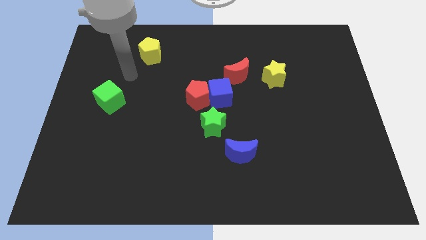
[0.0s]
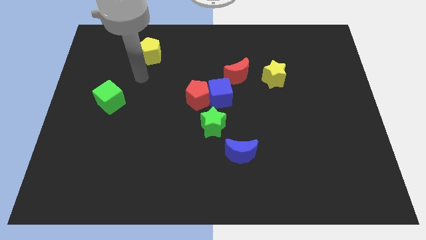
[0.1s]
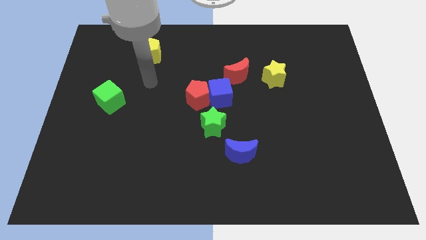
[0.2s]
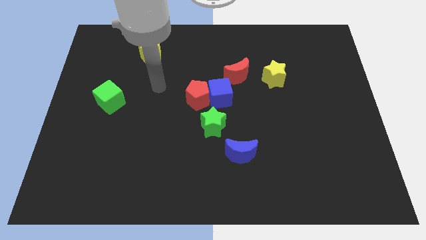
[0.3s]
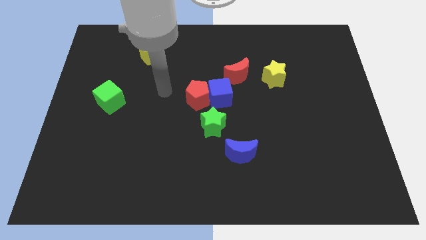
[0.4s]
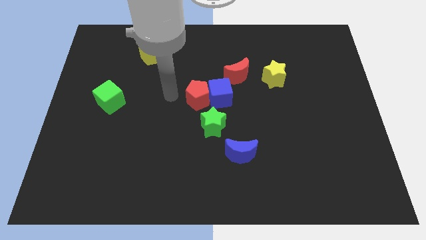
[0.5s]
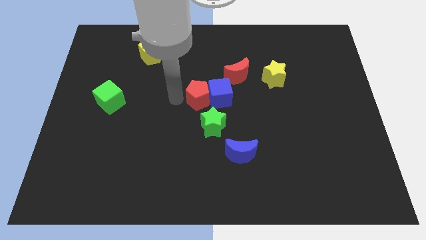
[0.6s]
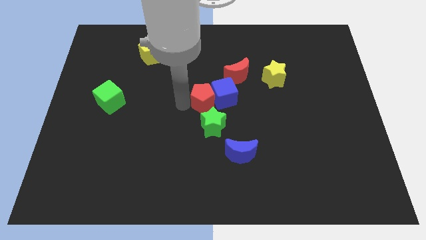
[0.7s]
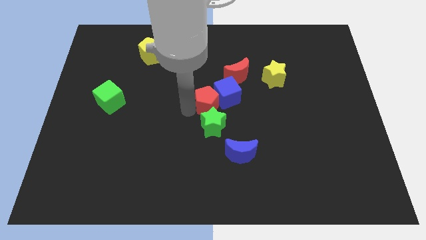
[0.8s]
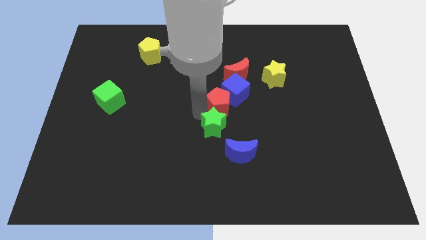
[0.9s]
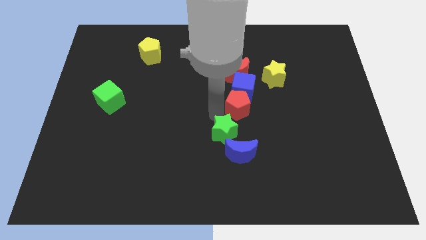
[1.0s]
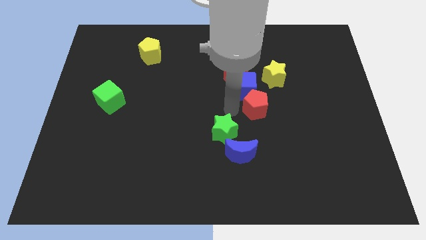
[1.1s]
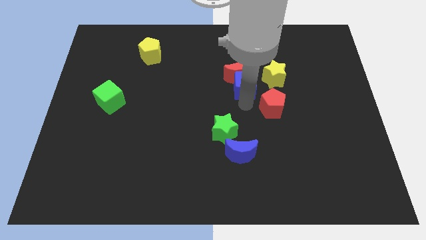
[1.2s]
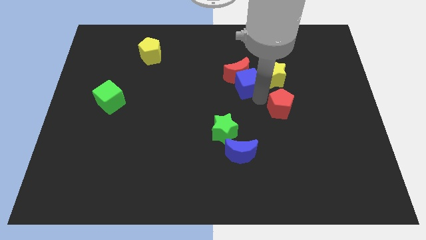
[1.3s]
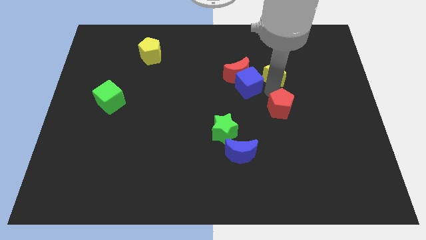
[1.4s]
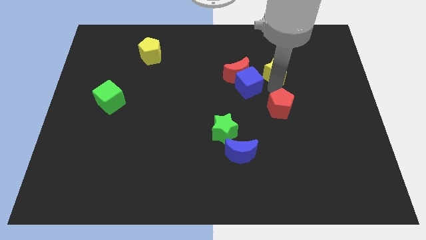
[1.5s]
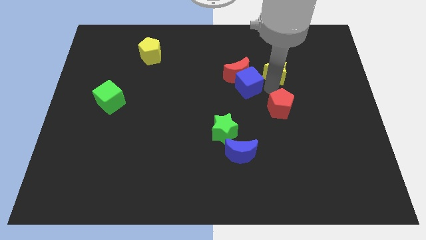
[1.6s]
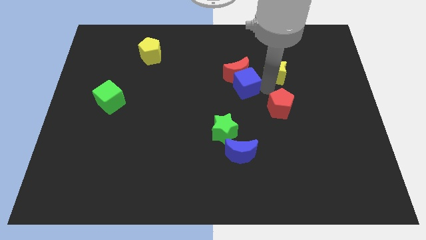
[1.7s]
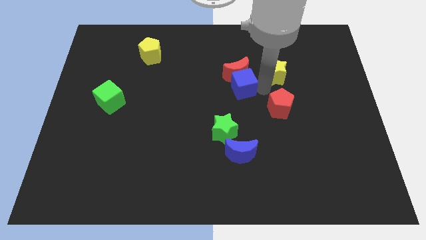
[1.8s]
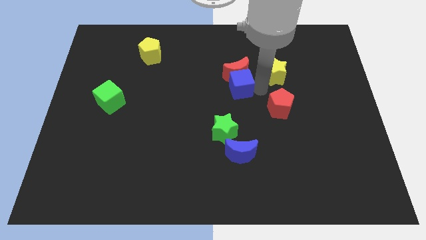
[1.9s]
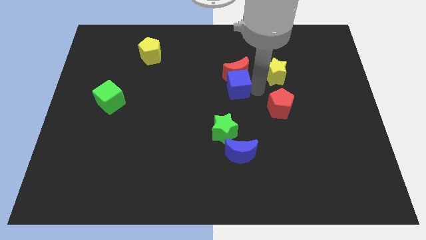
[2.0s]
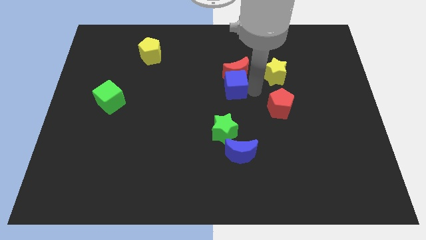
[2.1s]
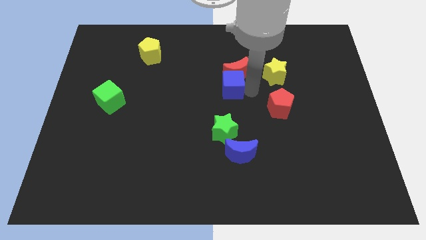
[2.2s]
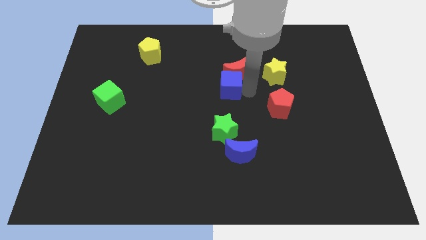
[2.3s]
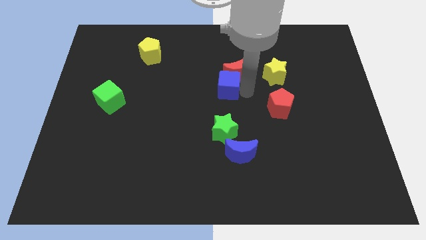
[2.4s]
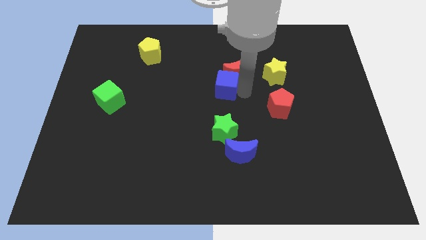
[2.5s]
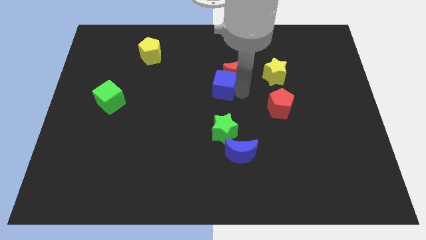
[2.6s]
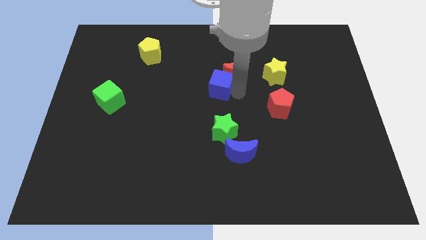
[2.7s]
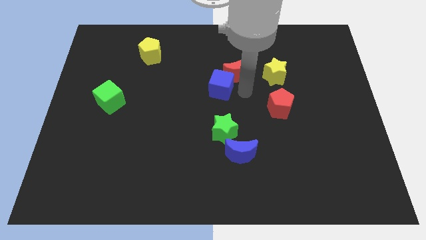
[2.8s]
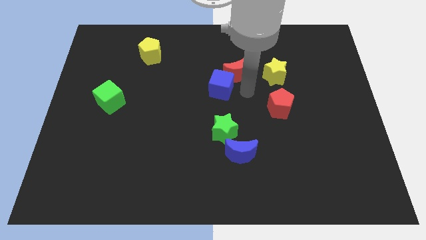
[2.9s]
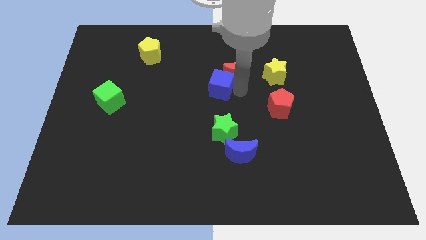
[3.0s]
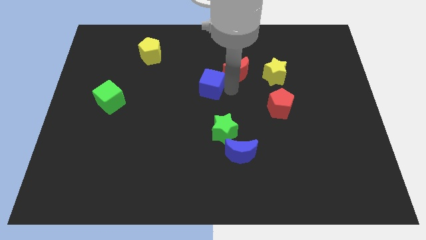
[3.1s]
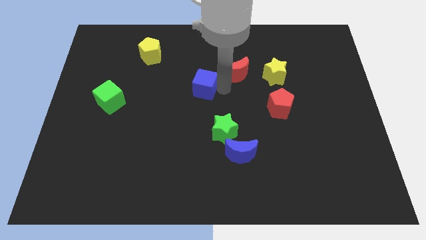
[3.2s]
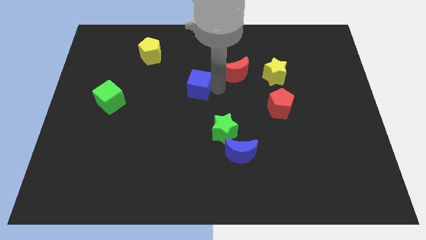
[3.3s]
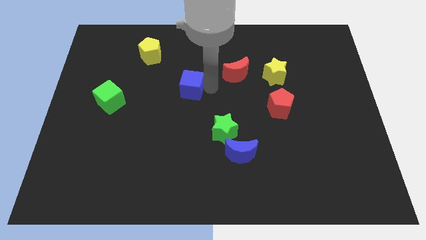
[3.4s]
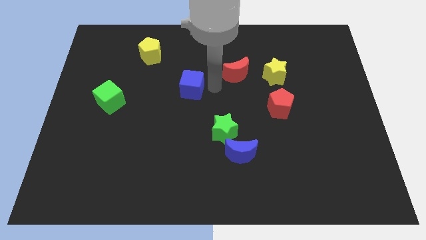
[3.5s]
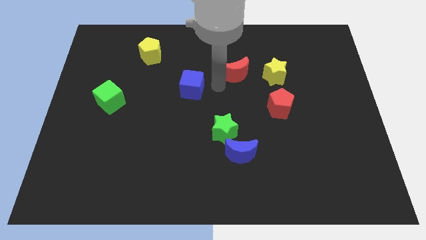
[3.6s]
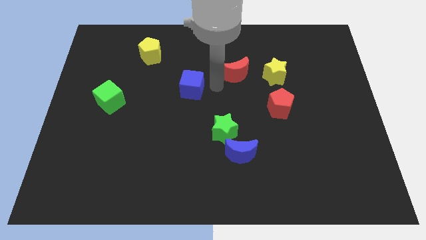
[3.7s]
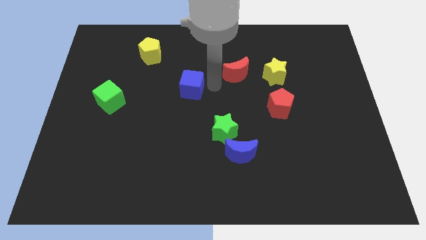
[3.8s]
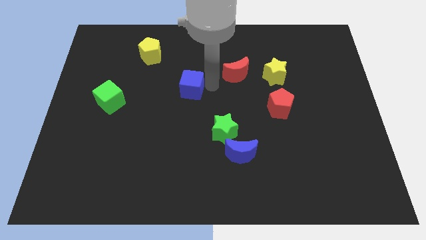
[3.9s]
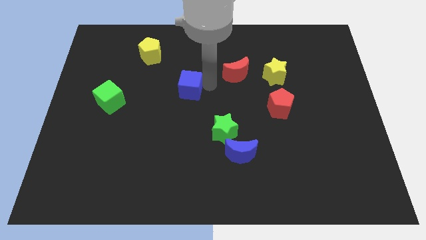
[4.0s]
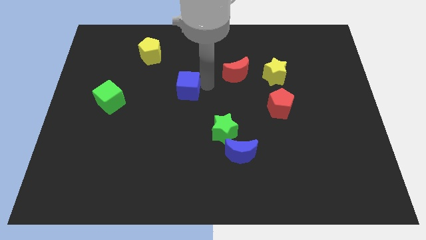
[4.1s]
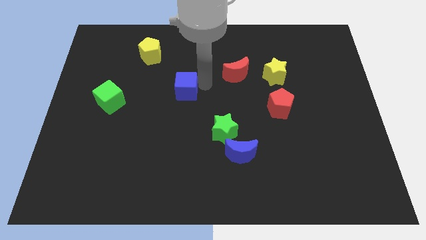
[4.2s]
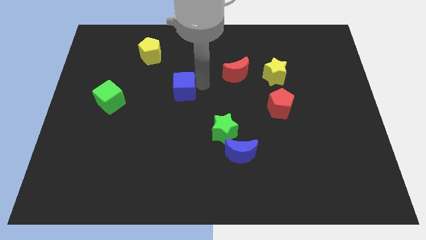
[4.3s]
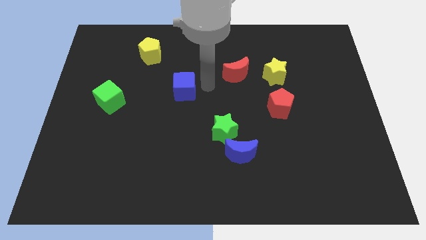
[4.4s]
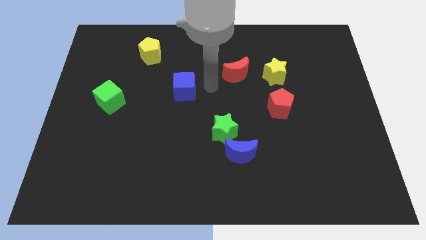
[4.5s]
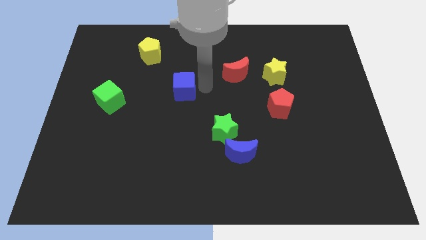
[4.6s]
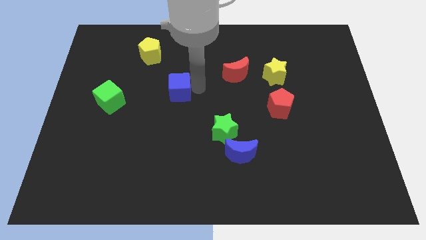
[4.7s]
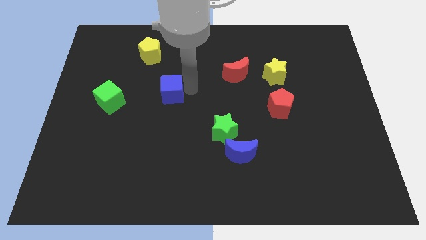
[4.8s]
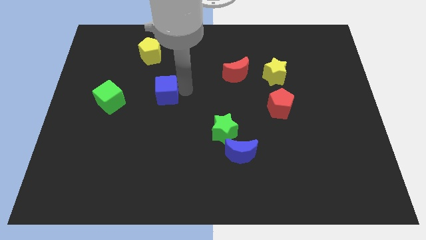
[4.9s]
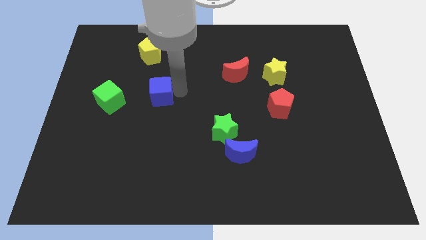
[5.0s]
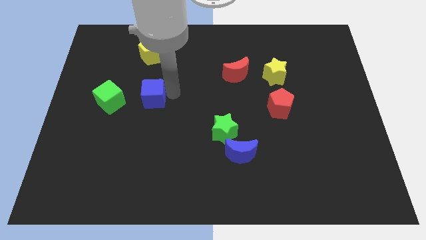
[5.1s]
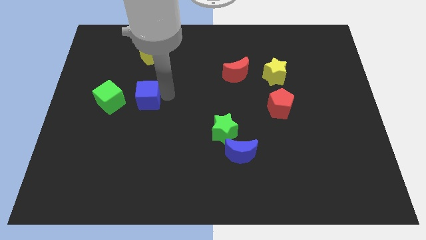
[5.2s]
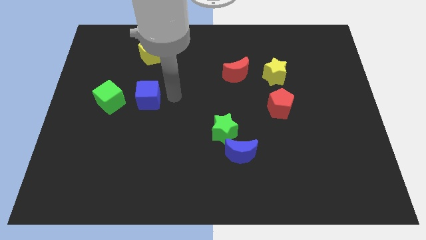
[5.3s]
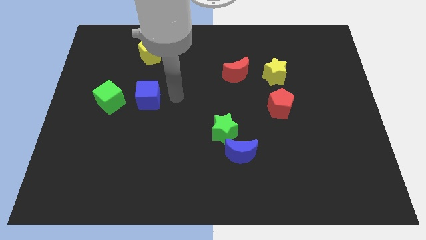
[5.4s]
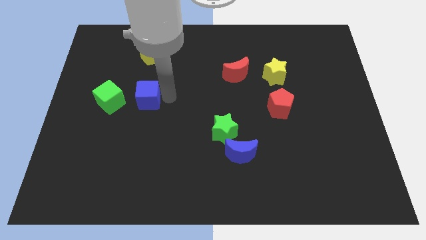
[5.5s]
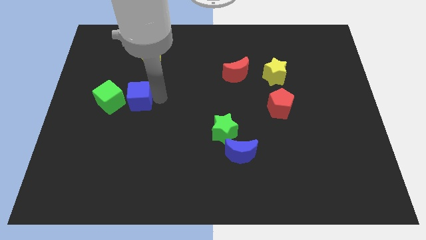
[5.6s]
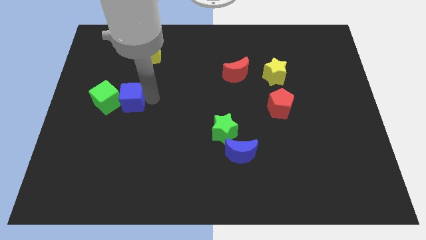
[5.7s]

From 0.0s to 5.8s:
move the blue cube close to the green cube

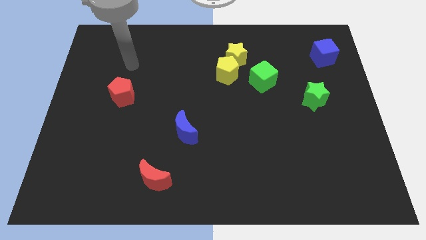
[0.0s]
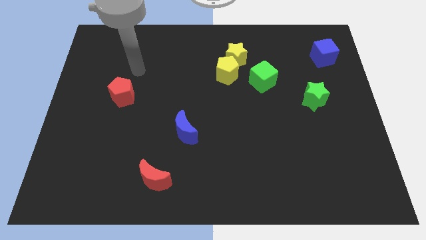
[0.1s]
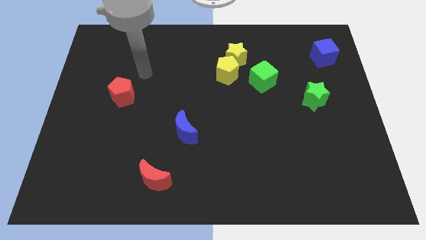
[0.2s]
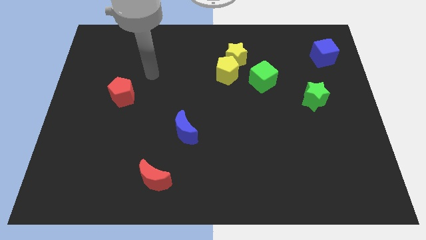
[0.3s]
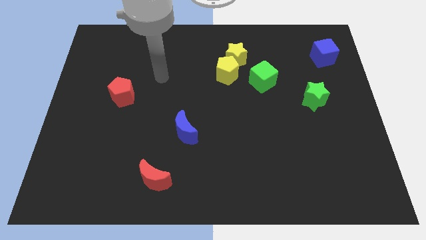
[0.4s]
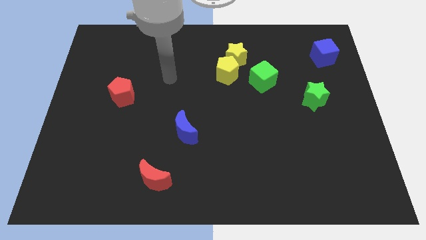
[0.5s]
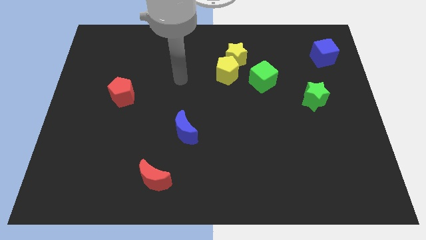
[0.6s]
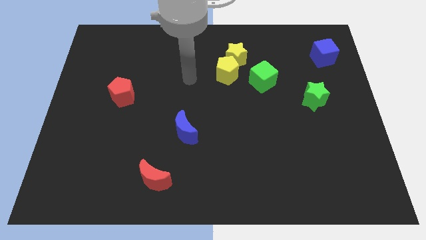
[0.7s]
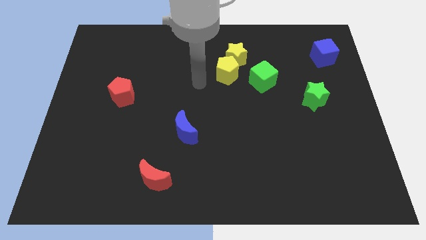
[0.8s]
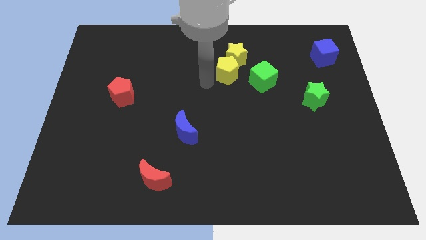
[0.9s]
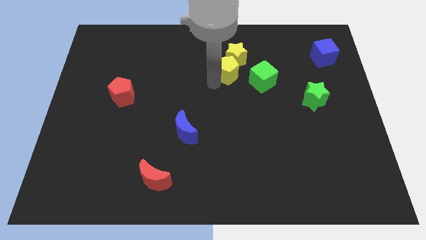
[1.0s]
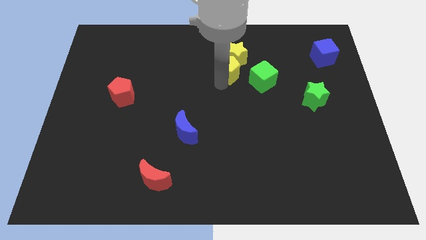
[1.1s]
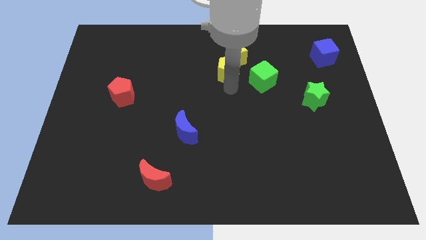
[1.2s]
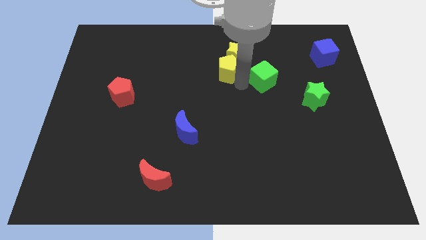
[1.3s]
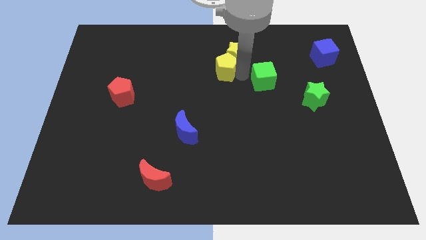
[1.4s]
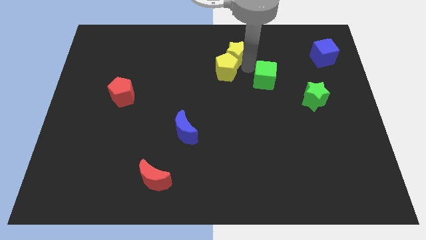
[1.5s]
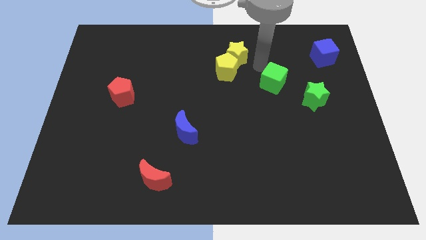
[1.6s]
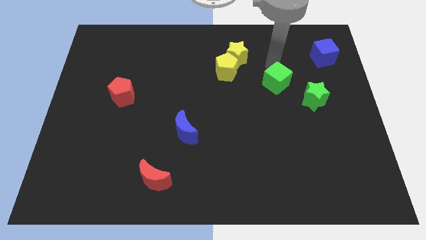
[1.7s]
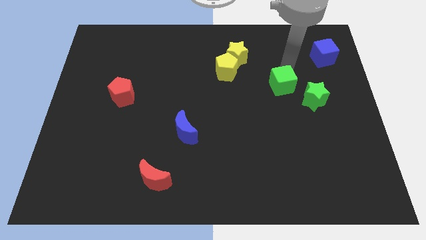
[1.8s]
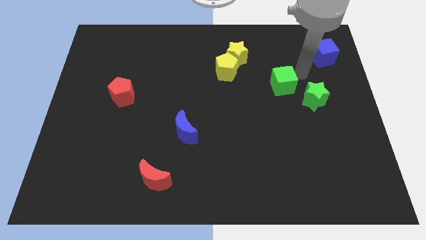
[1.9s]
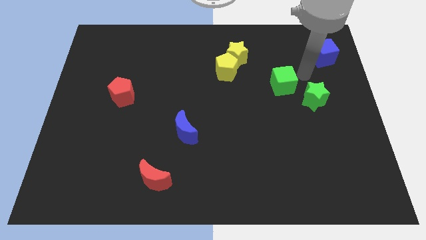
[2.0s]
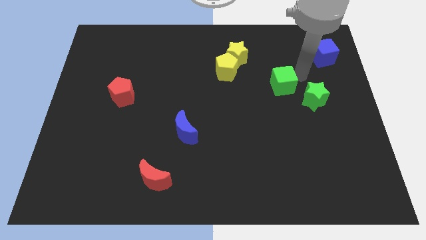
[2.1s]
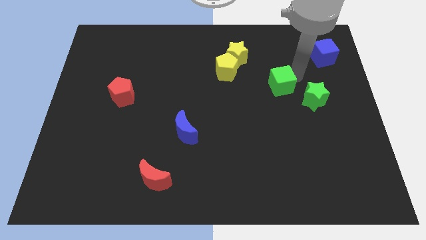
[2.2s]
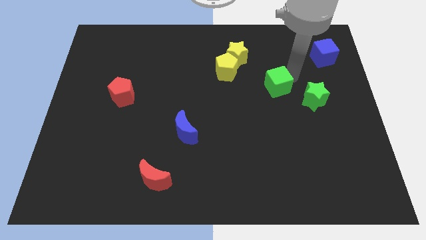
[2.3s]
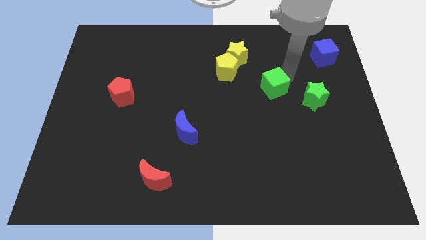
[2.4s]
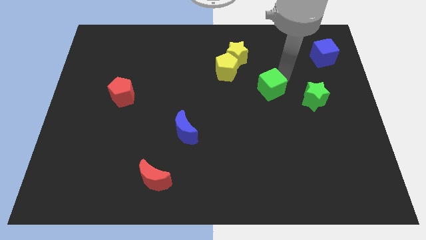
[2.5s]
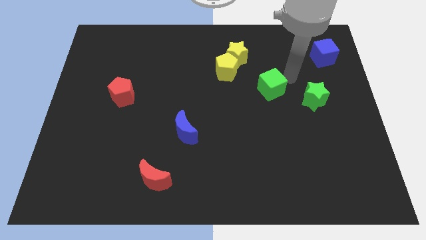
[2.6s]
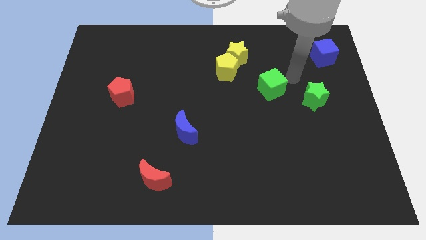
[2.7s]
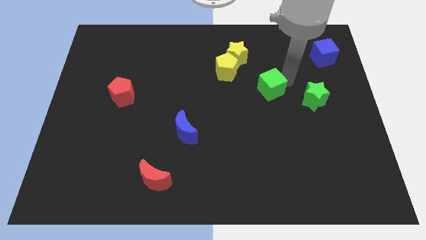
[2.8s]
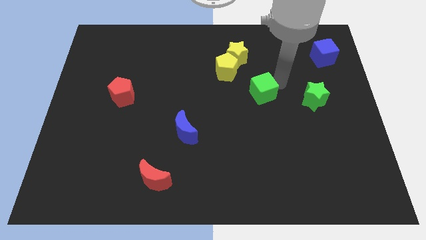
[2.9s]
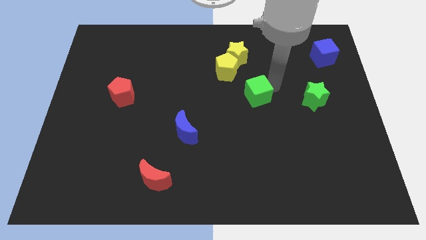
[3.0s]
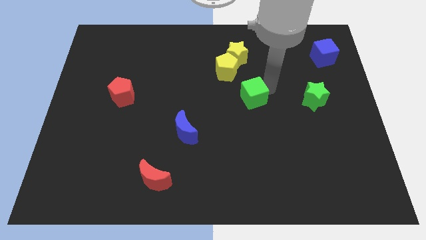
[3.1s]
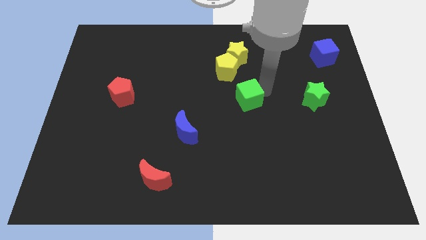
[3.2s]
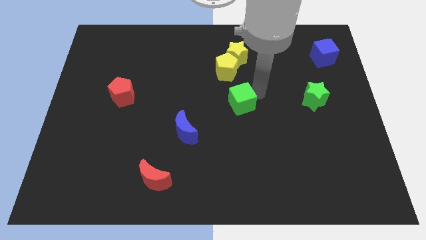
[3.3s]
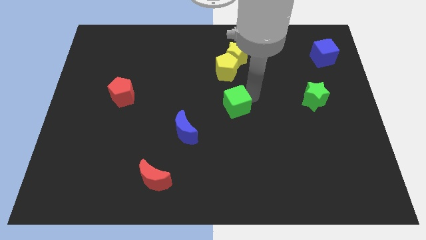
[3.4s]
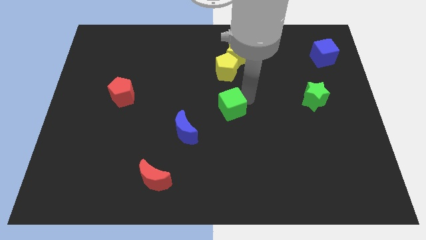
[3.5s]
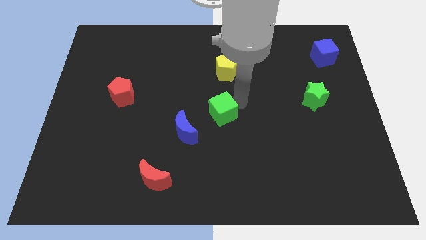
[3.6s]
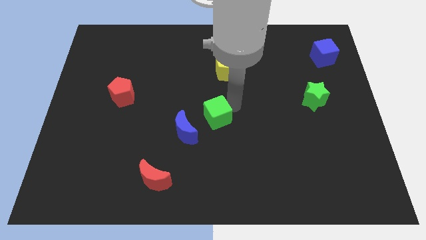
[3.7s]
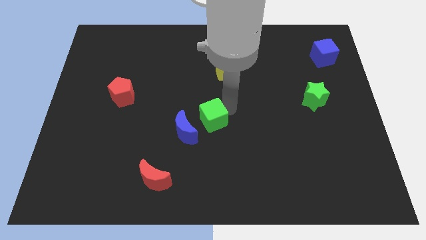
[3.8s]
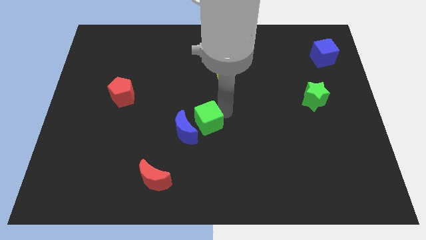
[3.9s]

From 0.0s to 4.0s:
move the green cube to the blue moon
